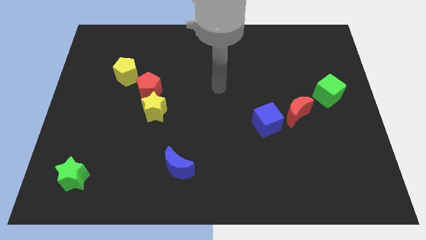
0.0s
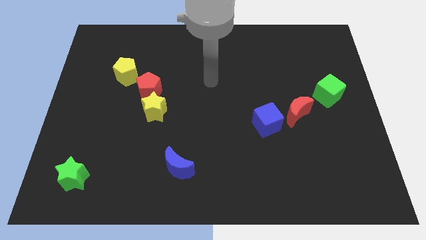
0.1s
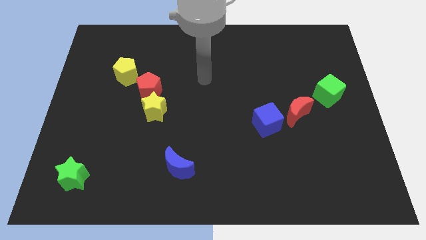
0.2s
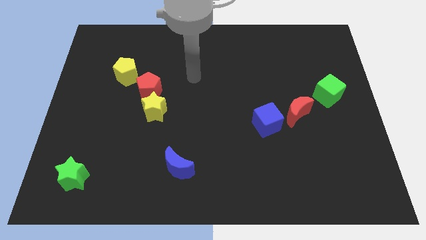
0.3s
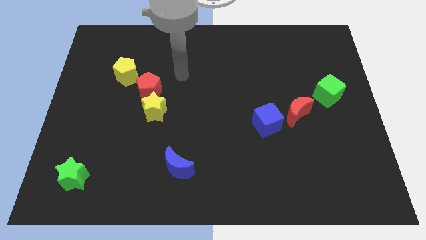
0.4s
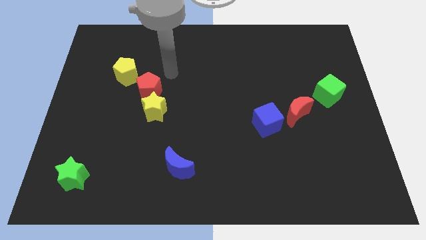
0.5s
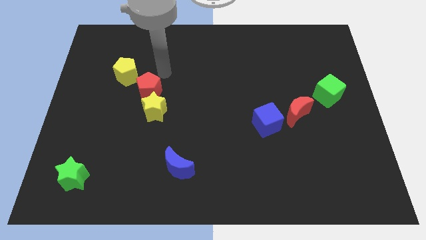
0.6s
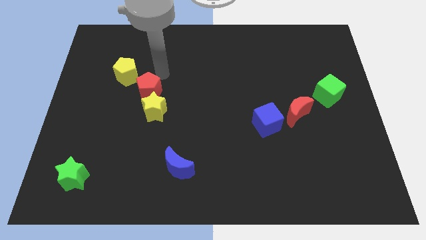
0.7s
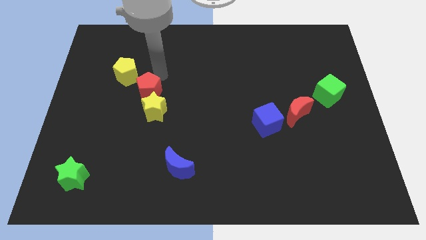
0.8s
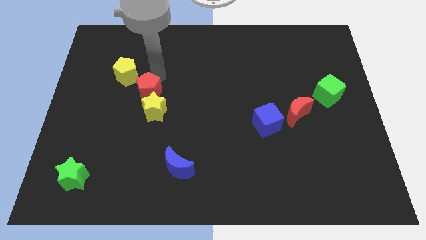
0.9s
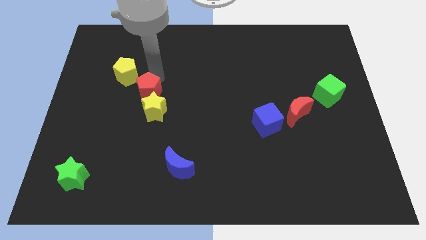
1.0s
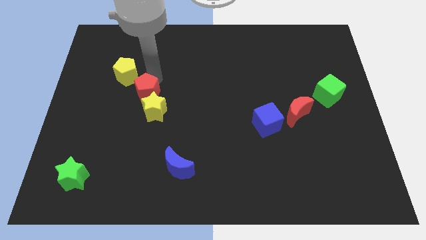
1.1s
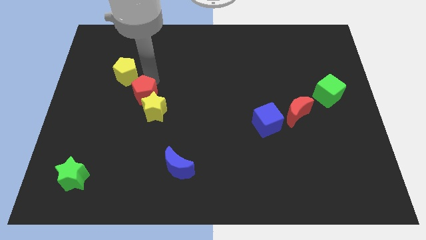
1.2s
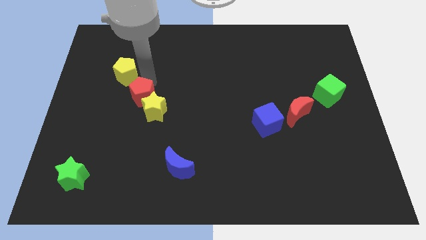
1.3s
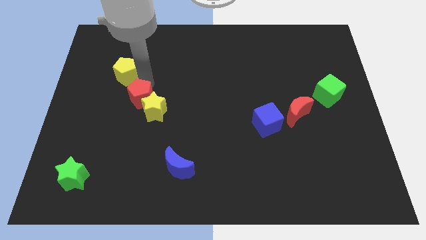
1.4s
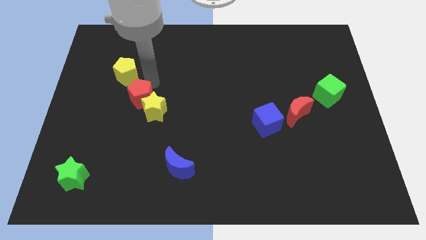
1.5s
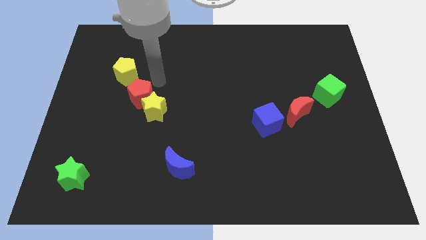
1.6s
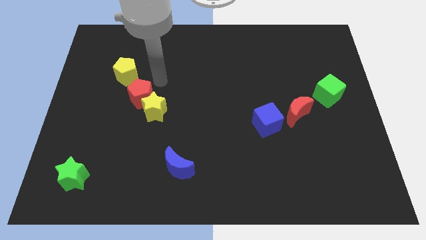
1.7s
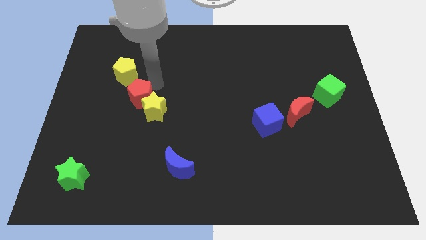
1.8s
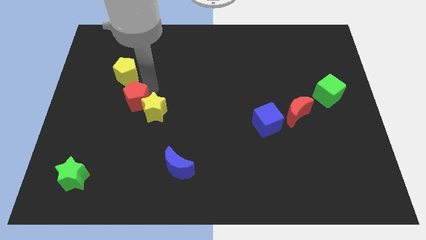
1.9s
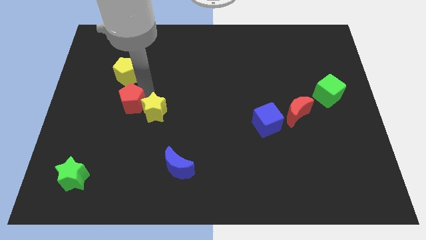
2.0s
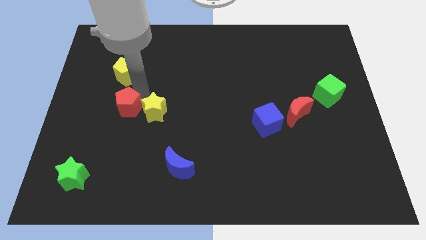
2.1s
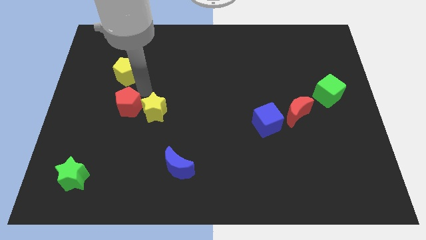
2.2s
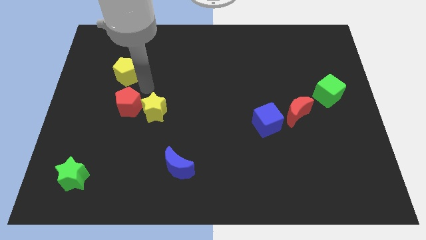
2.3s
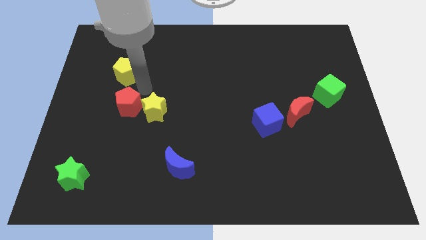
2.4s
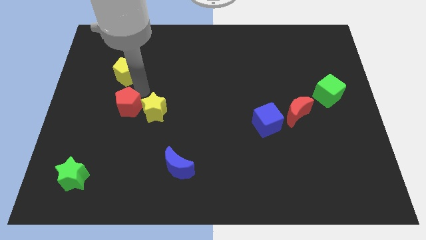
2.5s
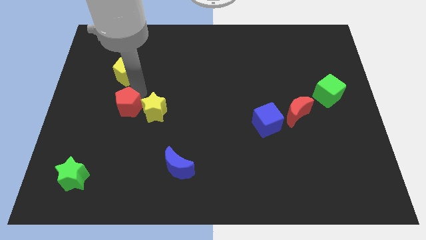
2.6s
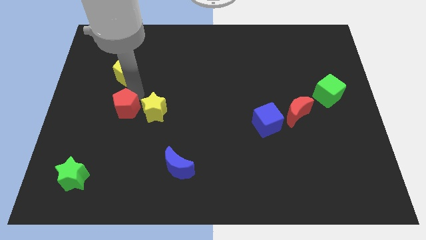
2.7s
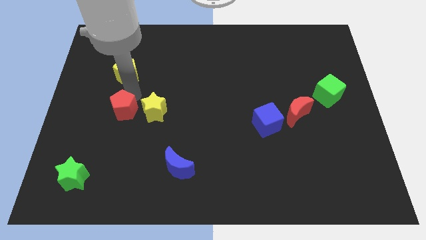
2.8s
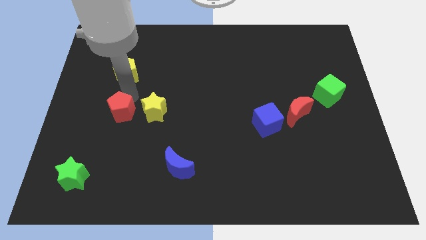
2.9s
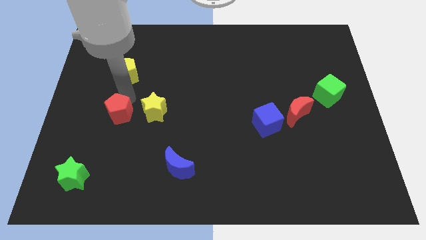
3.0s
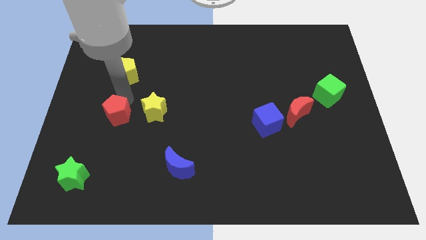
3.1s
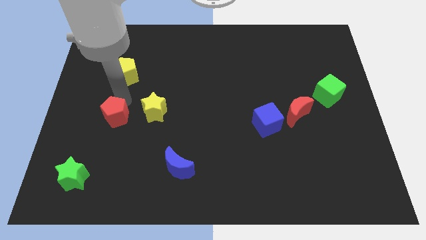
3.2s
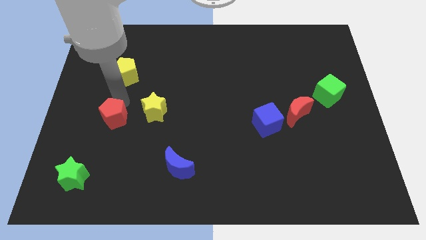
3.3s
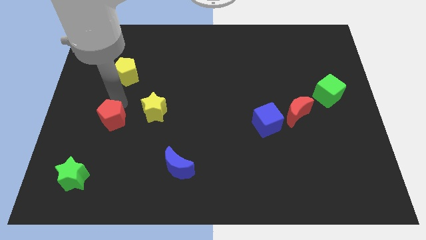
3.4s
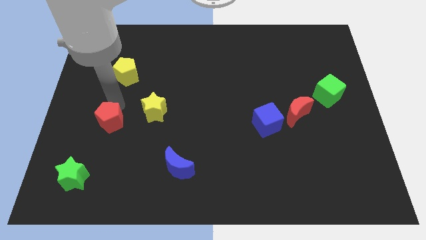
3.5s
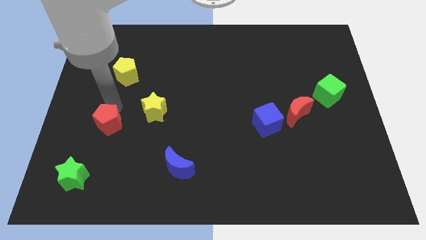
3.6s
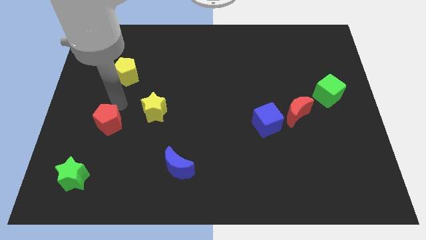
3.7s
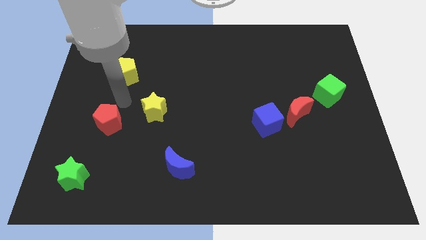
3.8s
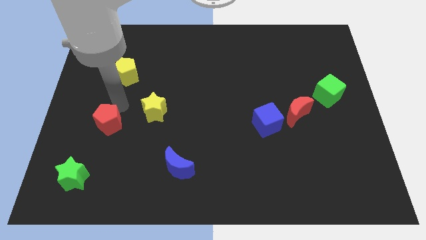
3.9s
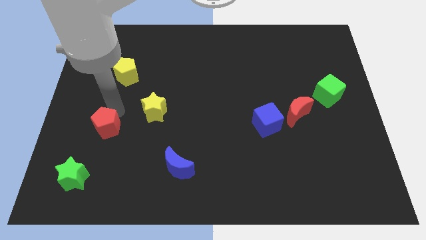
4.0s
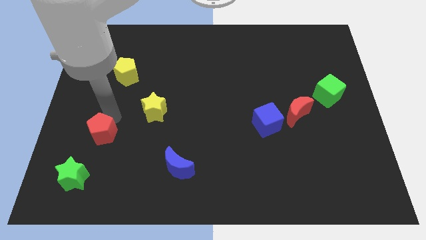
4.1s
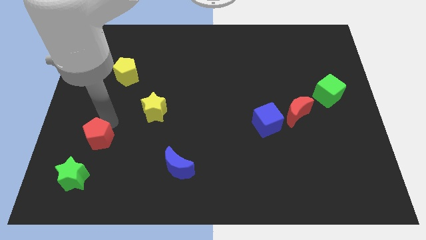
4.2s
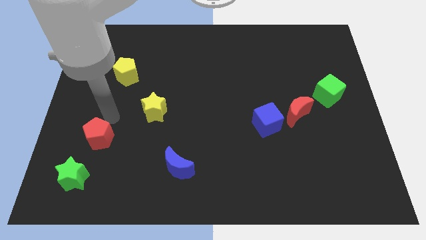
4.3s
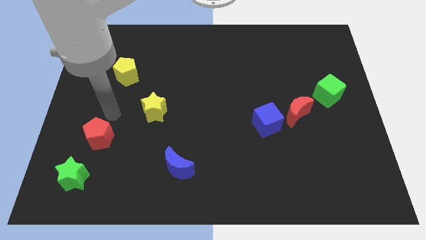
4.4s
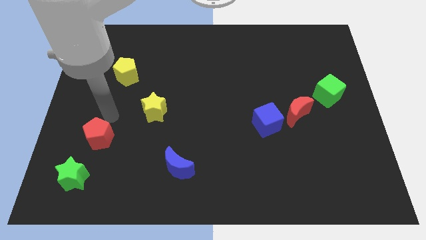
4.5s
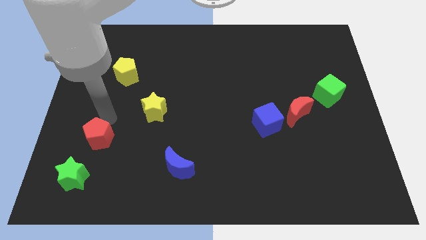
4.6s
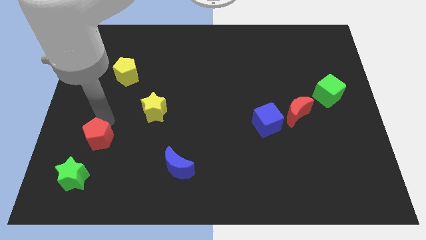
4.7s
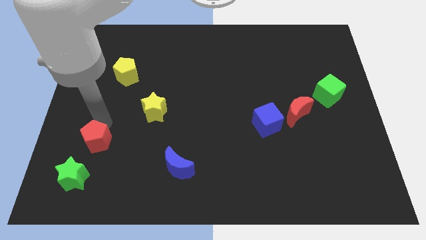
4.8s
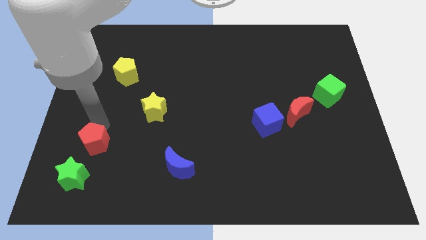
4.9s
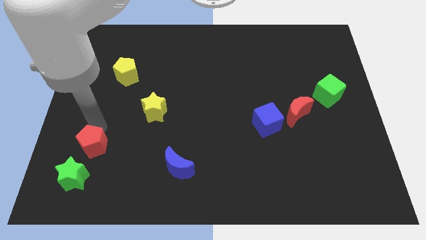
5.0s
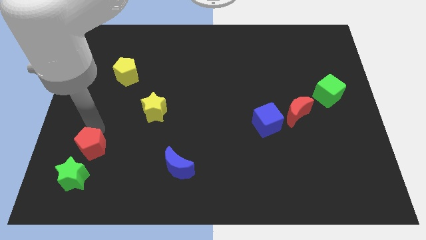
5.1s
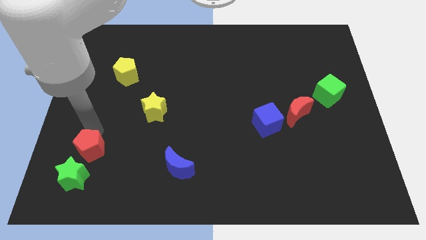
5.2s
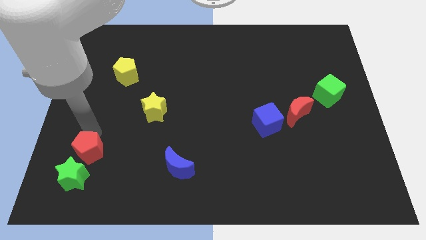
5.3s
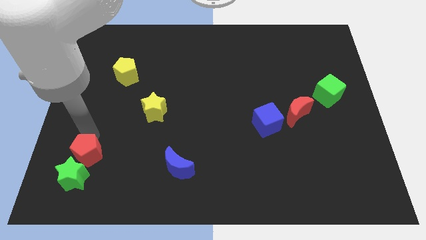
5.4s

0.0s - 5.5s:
move the red pentagon next to the green star

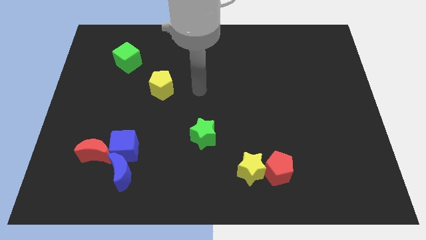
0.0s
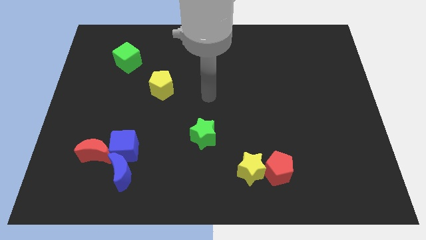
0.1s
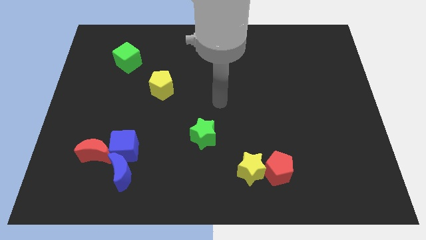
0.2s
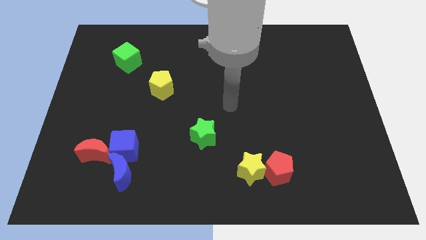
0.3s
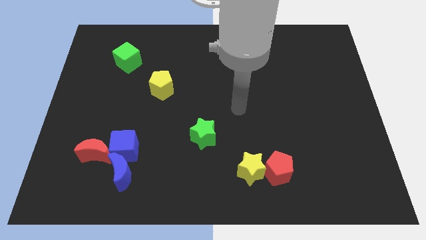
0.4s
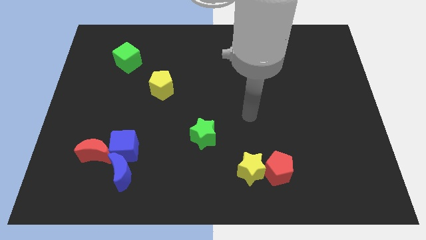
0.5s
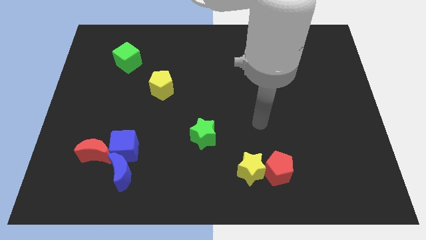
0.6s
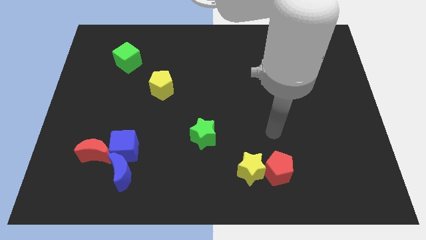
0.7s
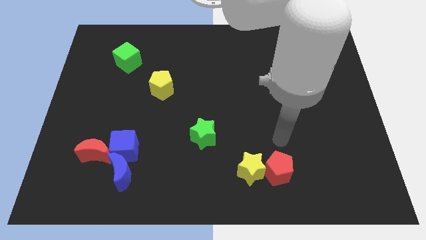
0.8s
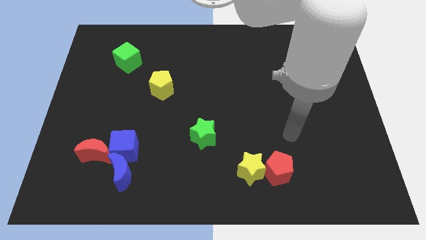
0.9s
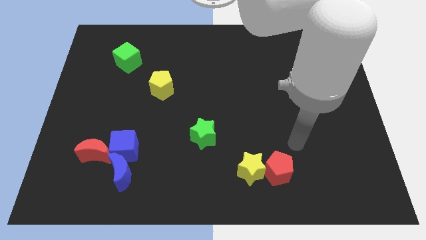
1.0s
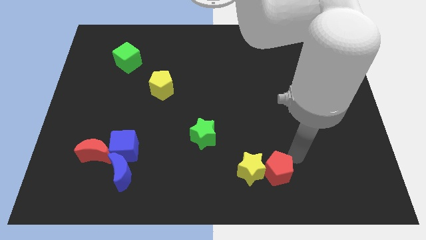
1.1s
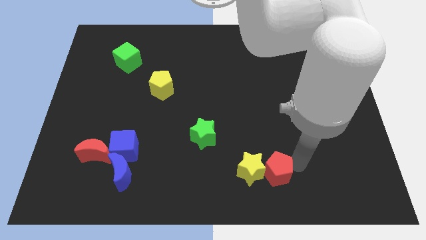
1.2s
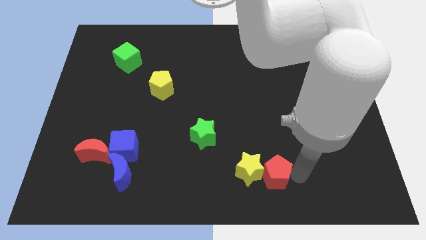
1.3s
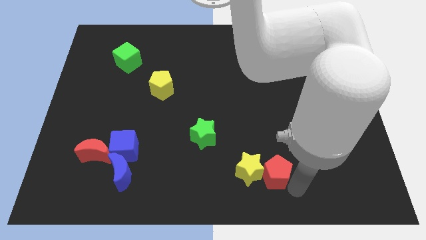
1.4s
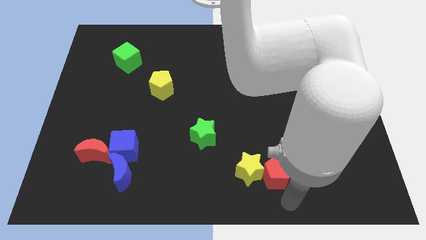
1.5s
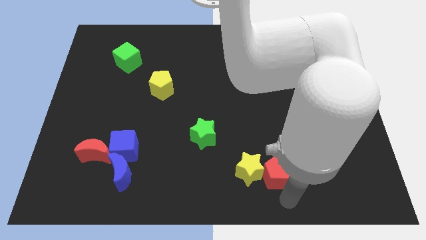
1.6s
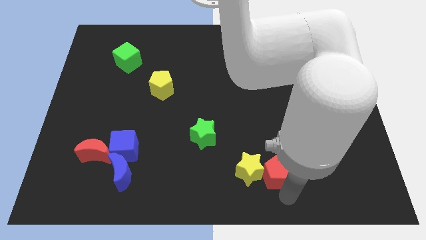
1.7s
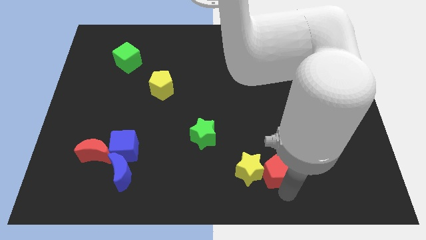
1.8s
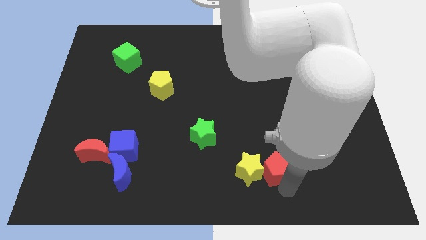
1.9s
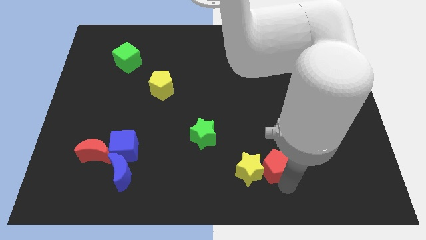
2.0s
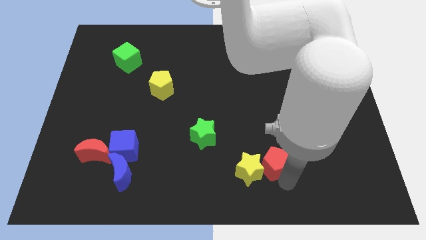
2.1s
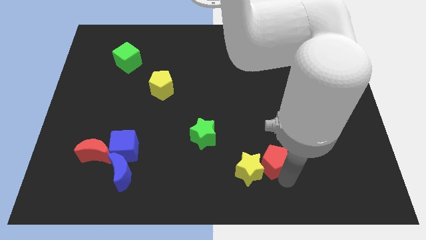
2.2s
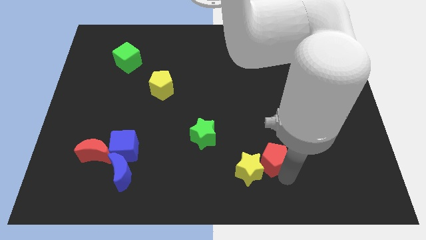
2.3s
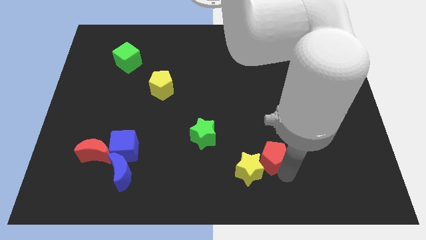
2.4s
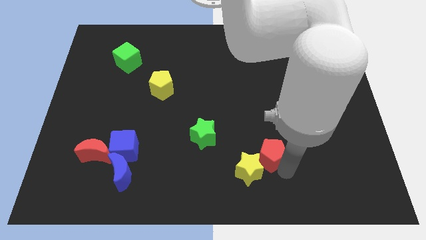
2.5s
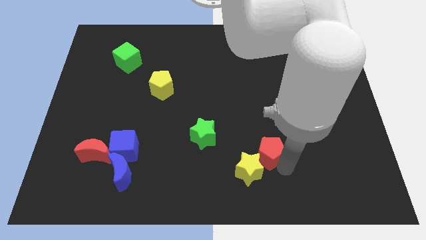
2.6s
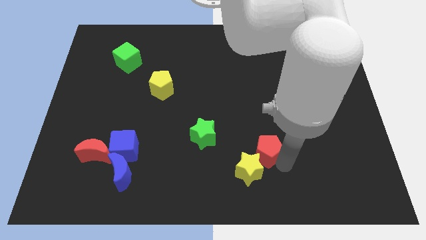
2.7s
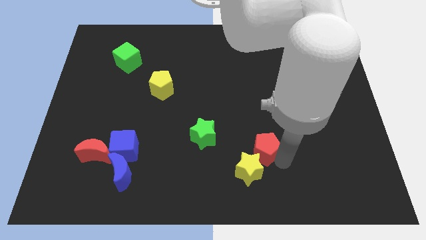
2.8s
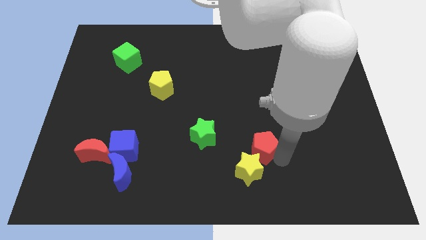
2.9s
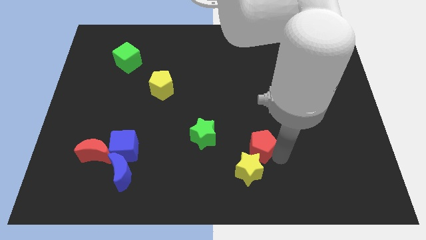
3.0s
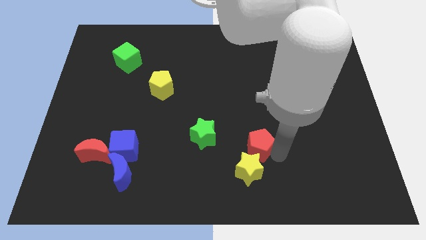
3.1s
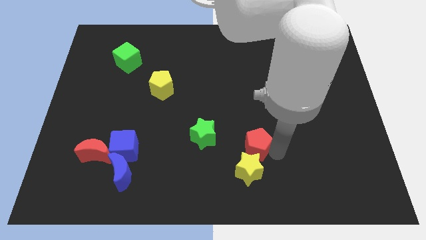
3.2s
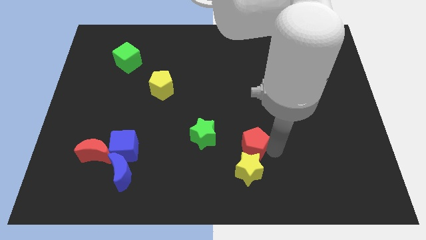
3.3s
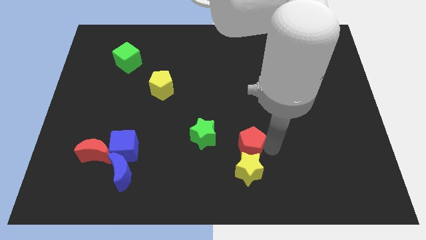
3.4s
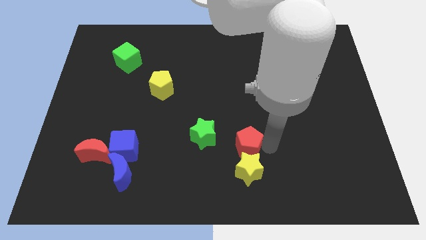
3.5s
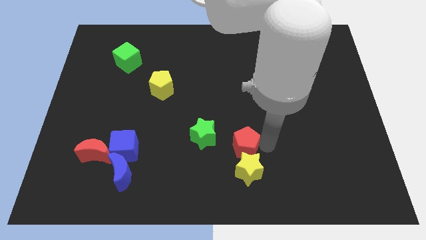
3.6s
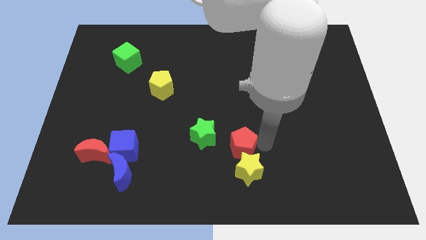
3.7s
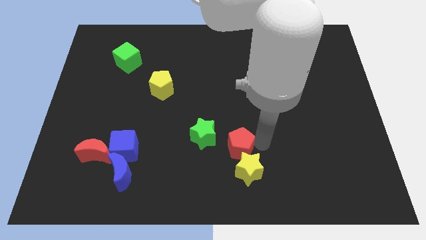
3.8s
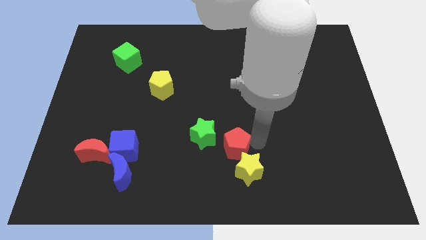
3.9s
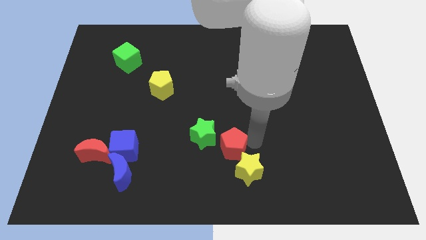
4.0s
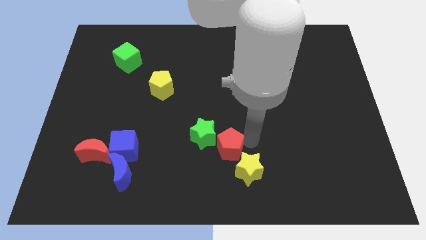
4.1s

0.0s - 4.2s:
push the red pentagon towards the green star
